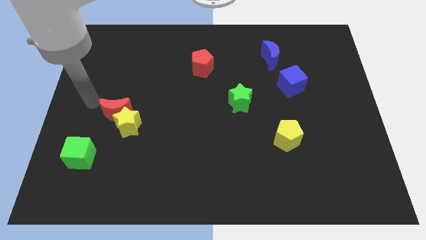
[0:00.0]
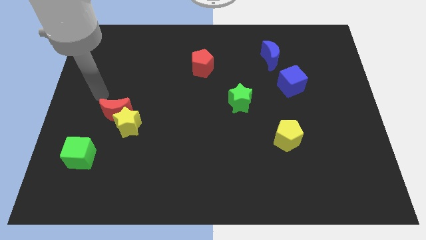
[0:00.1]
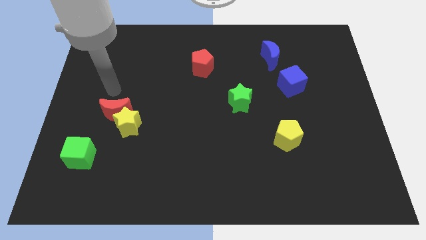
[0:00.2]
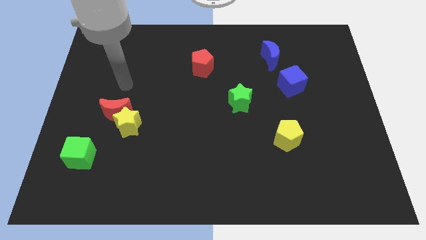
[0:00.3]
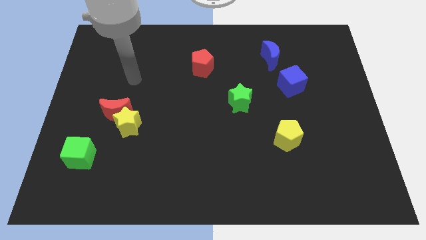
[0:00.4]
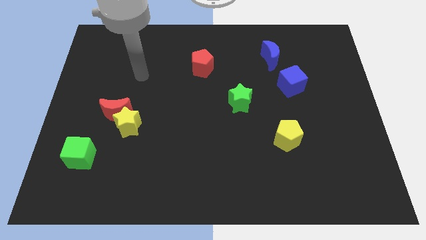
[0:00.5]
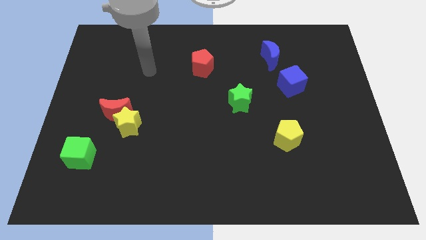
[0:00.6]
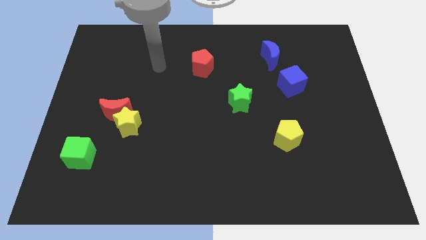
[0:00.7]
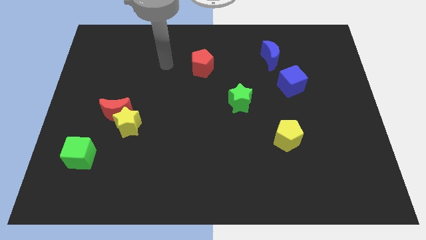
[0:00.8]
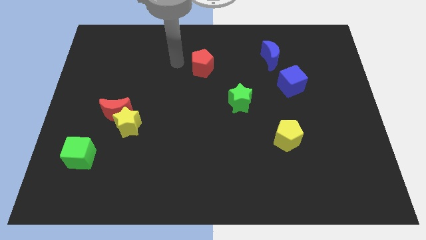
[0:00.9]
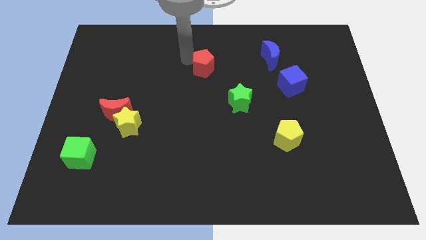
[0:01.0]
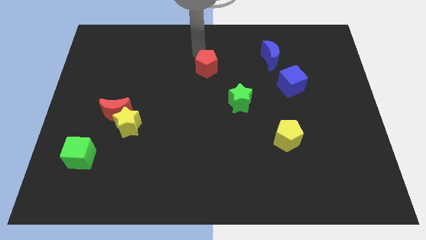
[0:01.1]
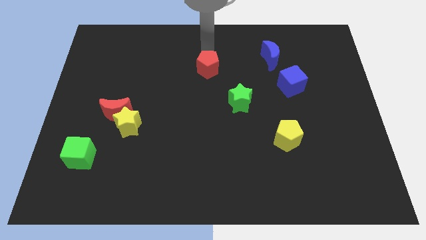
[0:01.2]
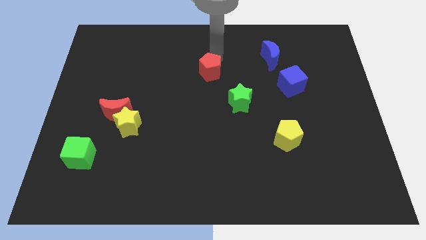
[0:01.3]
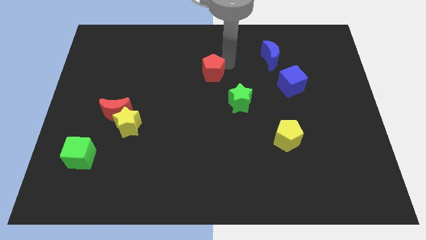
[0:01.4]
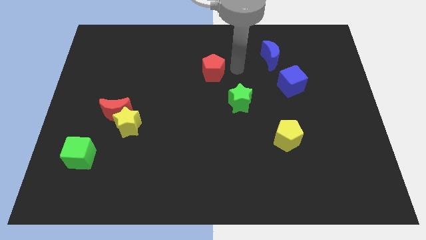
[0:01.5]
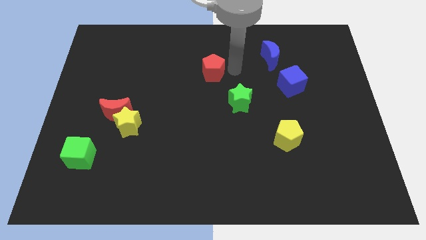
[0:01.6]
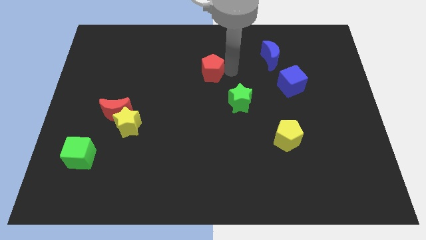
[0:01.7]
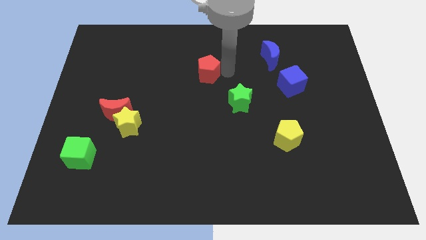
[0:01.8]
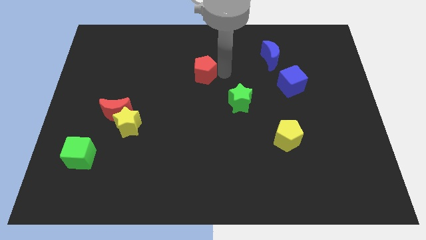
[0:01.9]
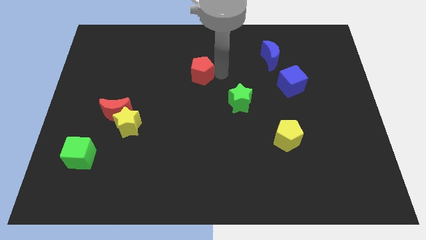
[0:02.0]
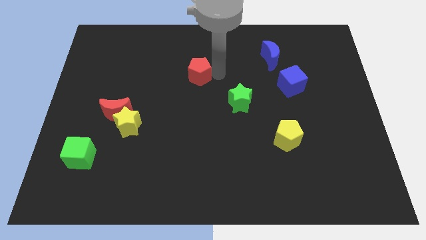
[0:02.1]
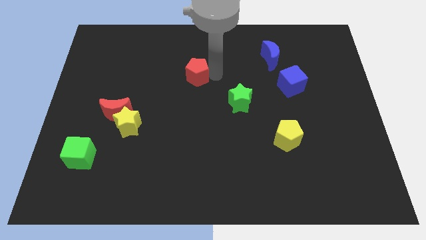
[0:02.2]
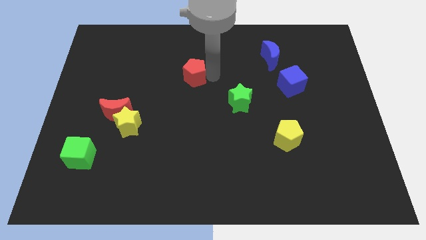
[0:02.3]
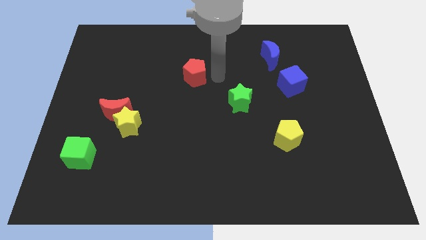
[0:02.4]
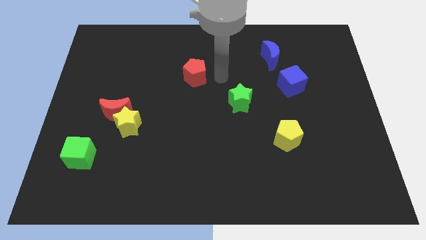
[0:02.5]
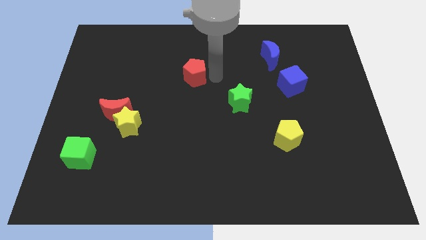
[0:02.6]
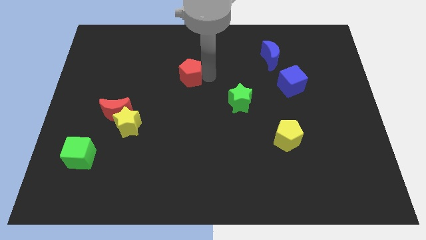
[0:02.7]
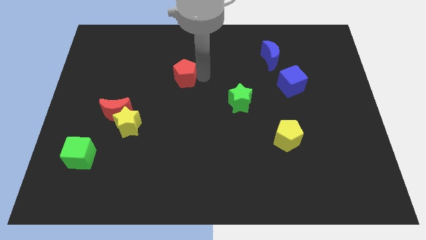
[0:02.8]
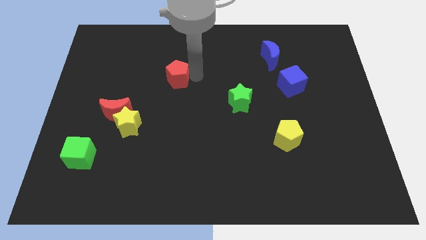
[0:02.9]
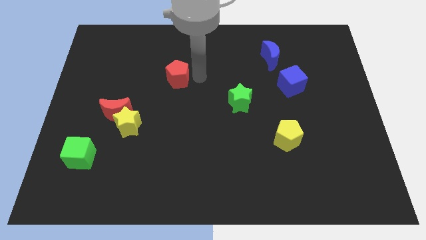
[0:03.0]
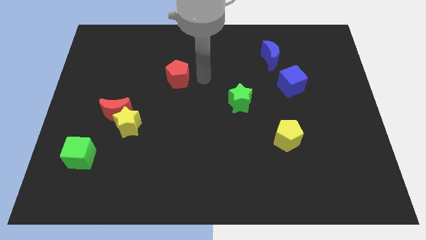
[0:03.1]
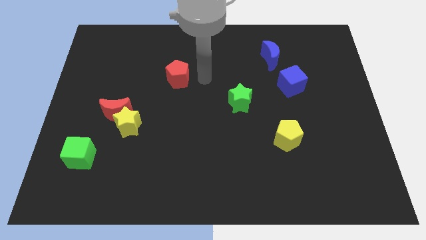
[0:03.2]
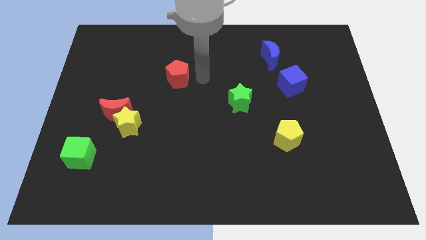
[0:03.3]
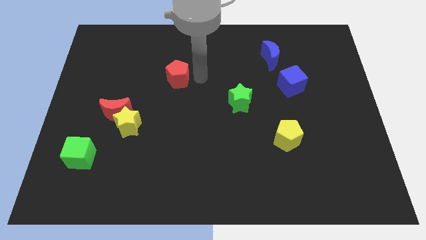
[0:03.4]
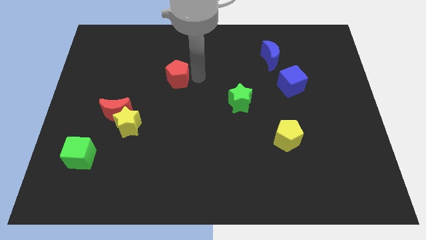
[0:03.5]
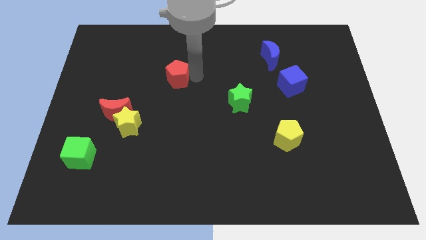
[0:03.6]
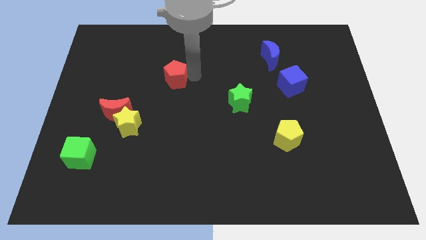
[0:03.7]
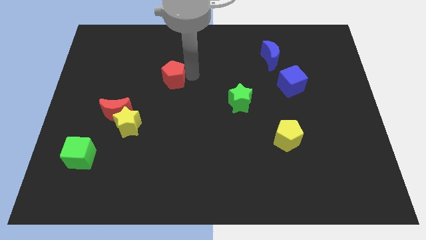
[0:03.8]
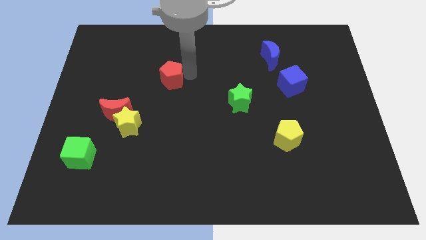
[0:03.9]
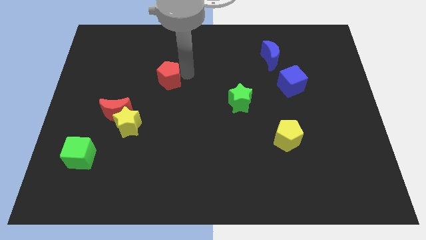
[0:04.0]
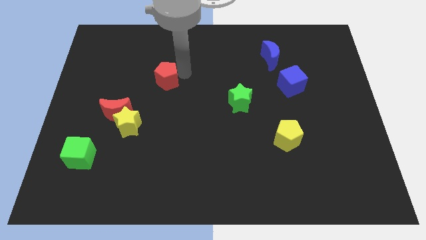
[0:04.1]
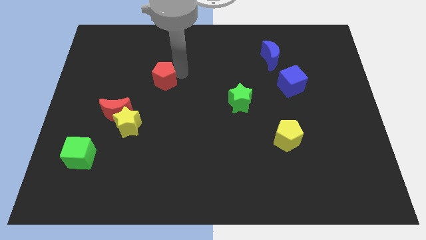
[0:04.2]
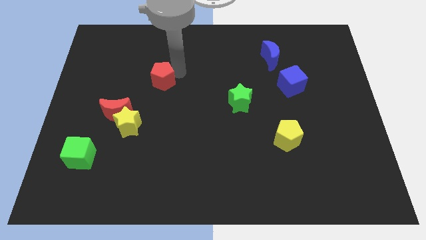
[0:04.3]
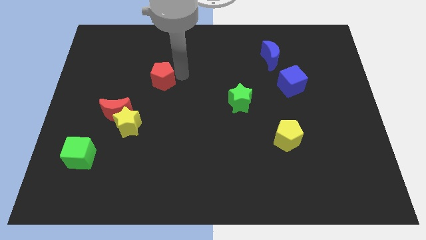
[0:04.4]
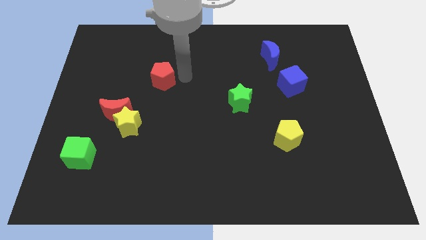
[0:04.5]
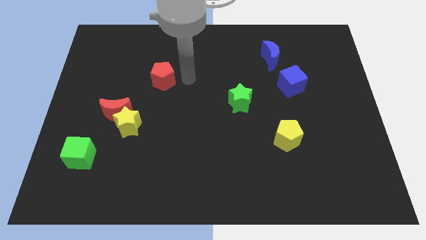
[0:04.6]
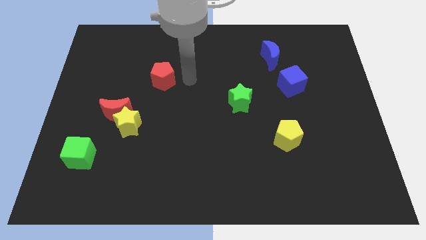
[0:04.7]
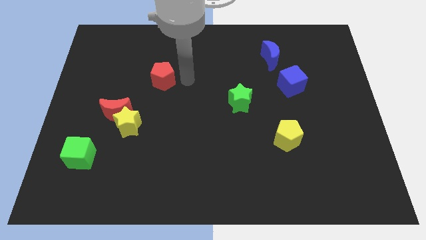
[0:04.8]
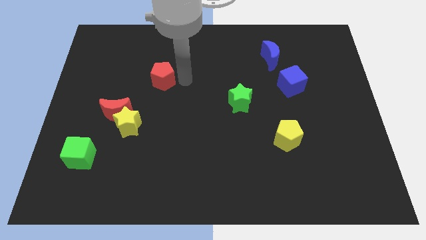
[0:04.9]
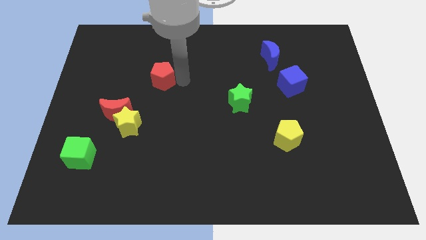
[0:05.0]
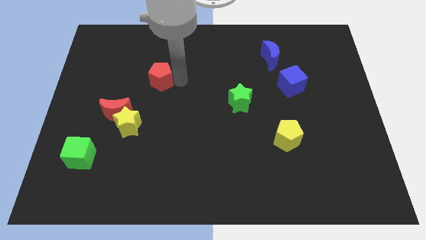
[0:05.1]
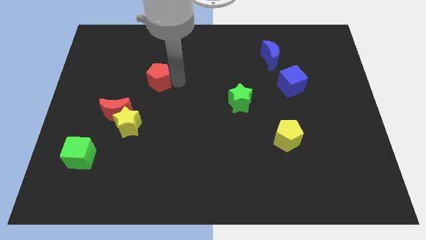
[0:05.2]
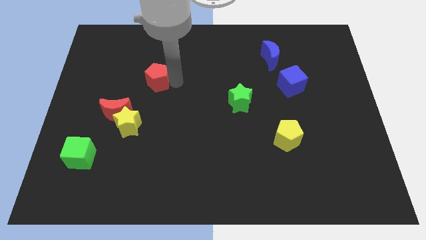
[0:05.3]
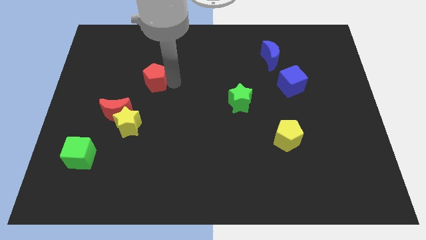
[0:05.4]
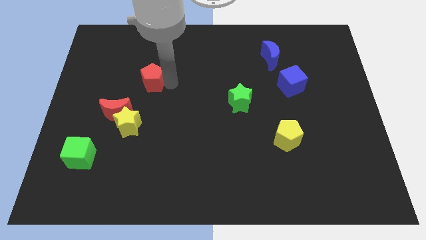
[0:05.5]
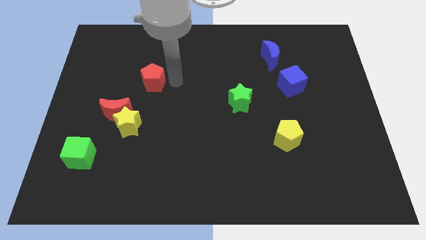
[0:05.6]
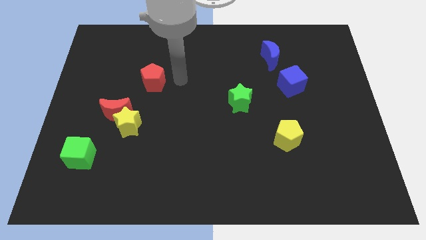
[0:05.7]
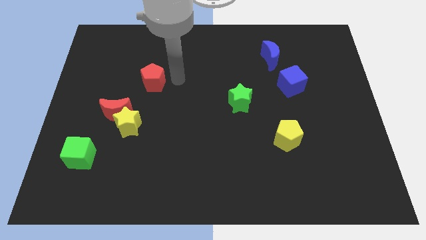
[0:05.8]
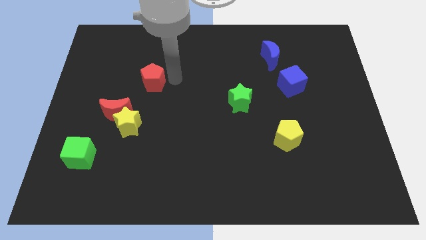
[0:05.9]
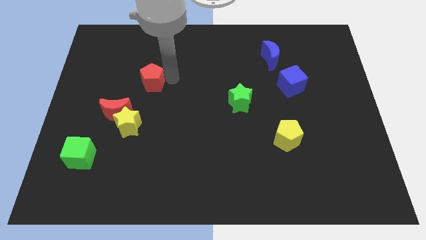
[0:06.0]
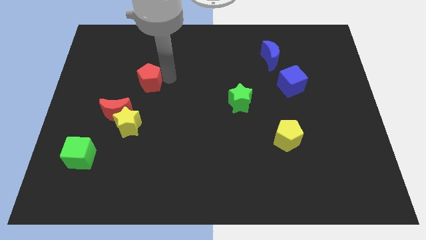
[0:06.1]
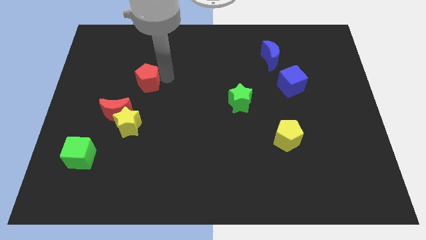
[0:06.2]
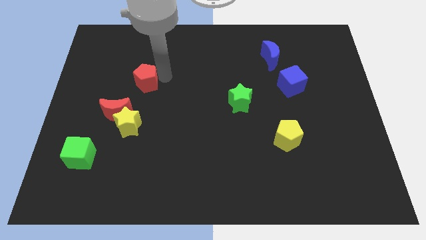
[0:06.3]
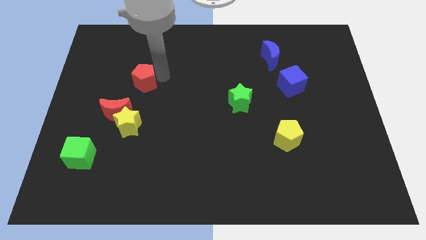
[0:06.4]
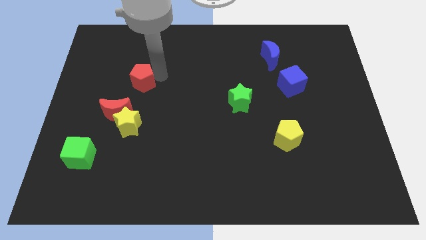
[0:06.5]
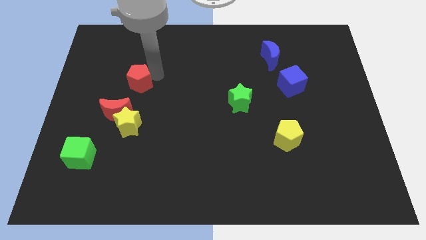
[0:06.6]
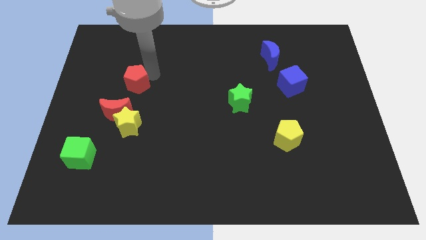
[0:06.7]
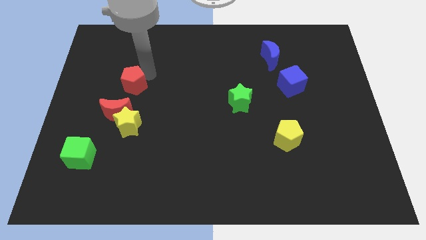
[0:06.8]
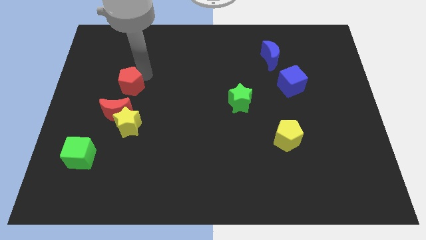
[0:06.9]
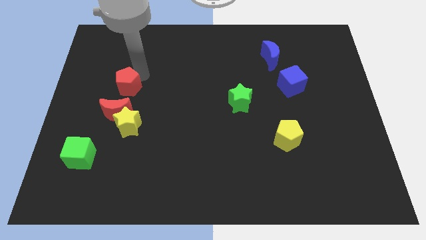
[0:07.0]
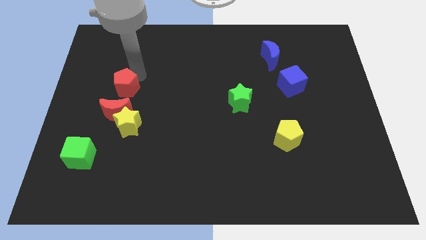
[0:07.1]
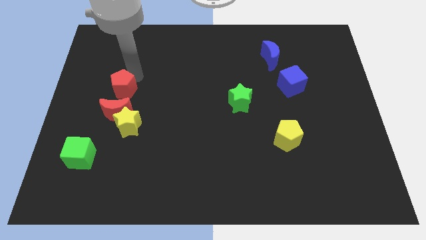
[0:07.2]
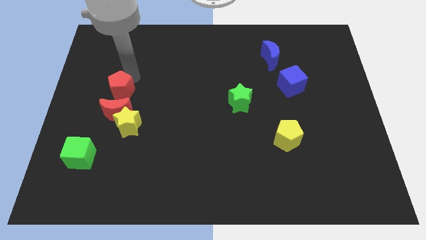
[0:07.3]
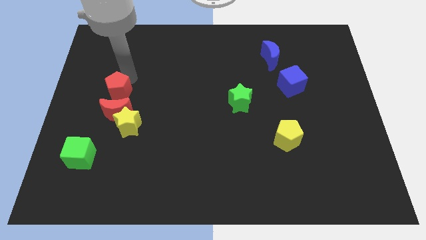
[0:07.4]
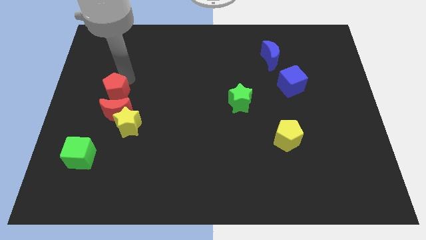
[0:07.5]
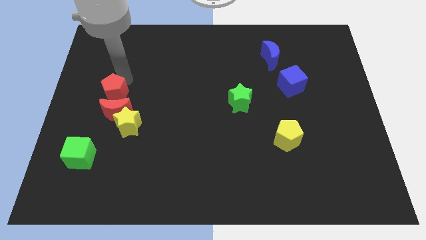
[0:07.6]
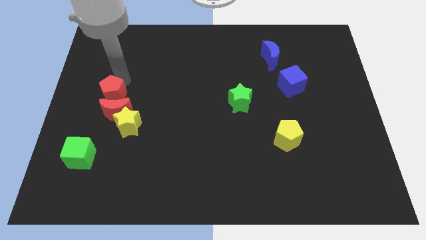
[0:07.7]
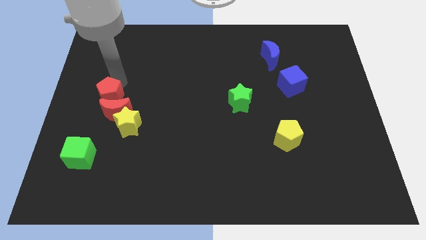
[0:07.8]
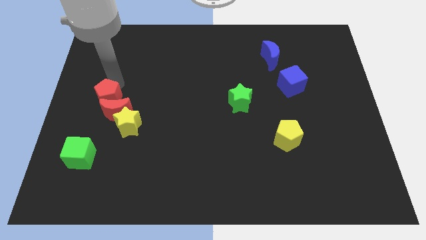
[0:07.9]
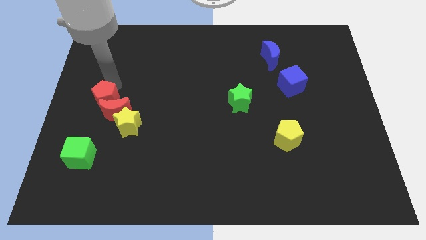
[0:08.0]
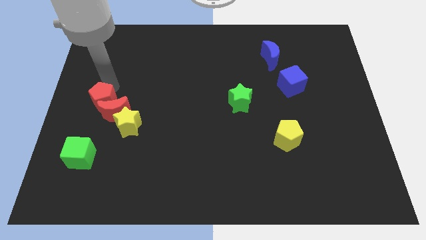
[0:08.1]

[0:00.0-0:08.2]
push the red pentagon above the green cube
